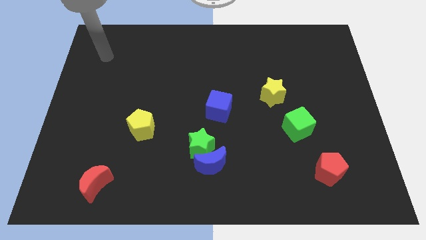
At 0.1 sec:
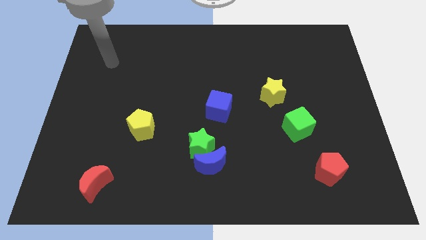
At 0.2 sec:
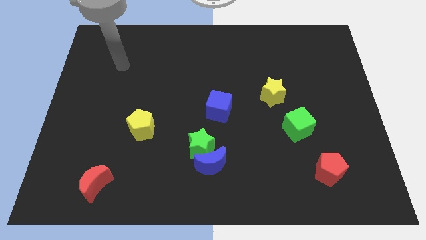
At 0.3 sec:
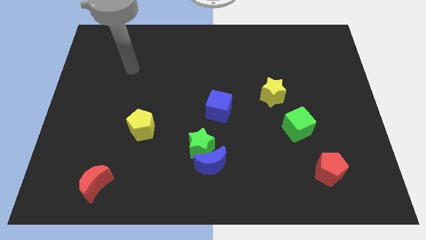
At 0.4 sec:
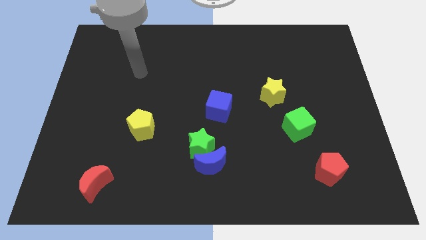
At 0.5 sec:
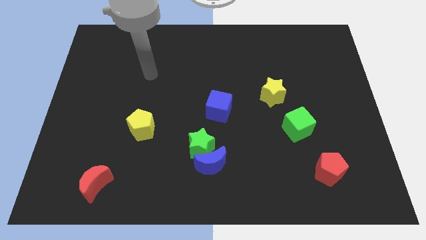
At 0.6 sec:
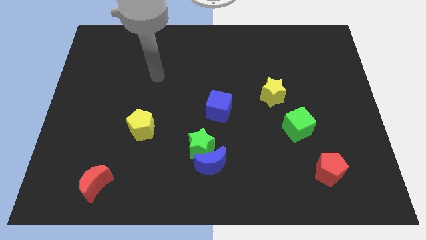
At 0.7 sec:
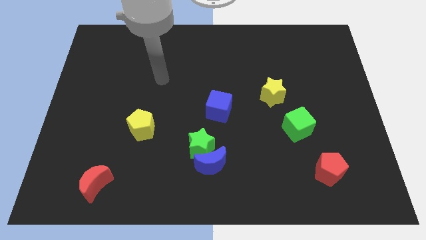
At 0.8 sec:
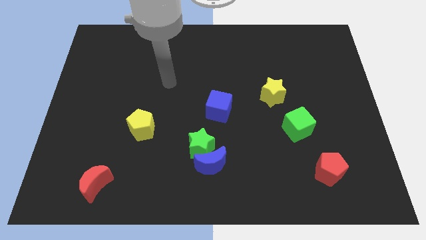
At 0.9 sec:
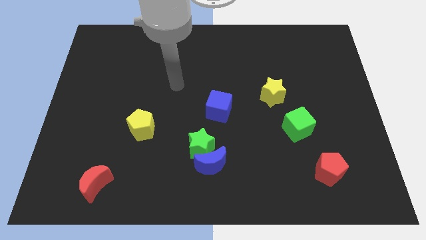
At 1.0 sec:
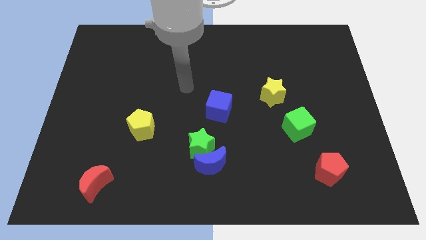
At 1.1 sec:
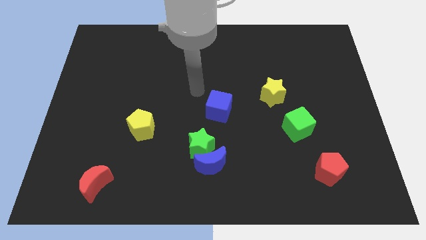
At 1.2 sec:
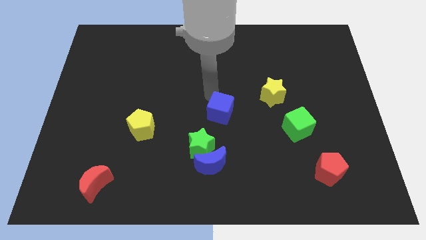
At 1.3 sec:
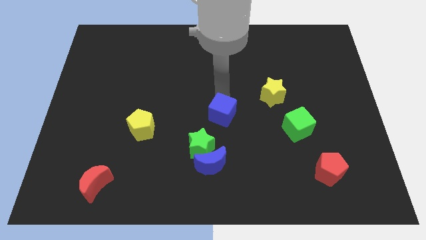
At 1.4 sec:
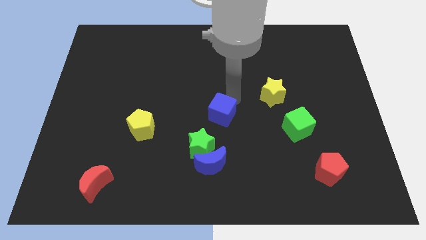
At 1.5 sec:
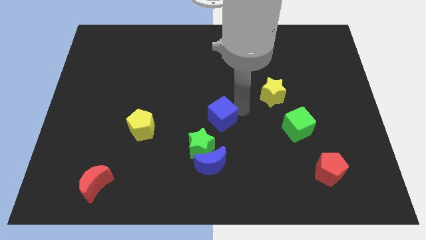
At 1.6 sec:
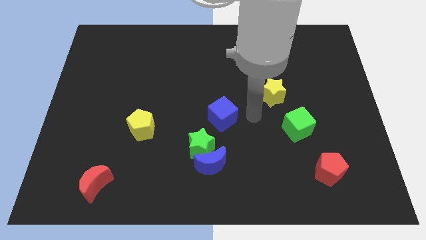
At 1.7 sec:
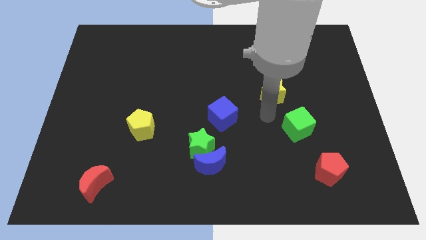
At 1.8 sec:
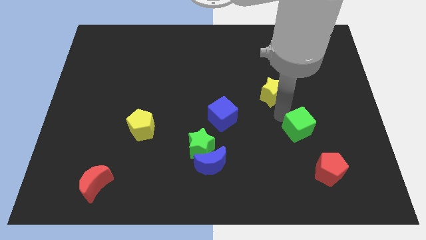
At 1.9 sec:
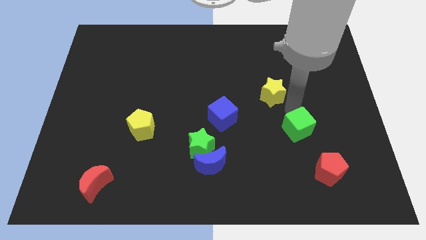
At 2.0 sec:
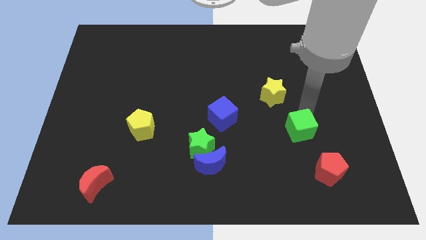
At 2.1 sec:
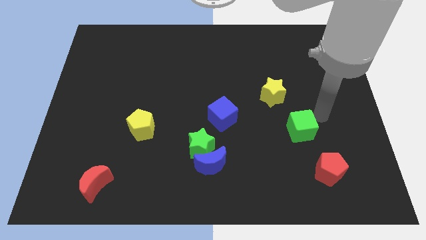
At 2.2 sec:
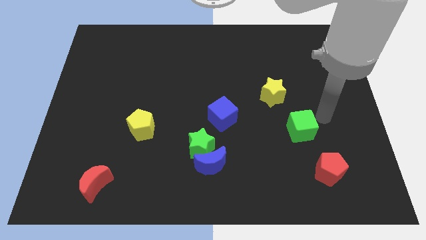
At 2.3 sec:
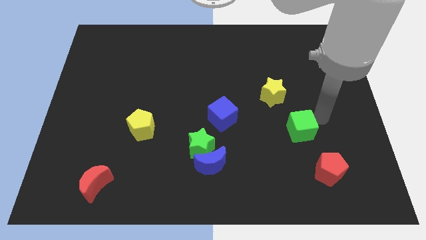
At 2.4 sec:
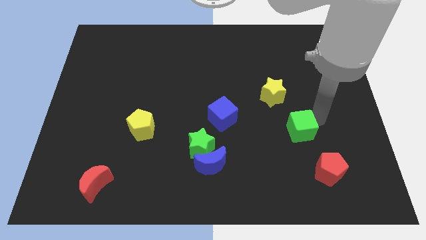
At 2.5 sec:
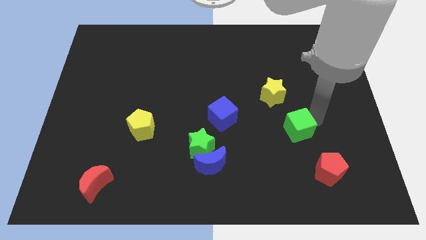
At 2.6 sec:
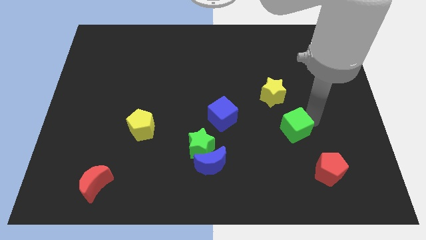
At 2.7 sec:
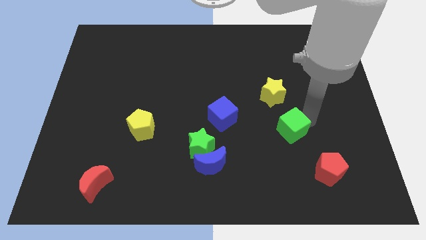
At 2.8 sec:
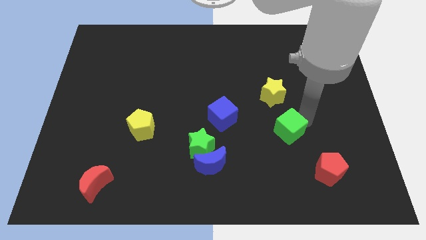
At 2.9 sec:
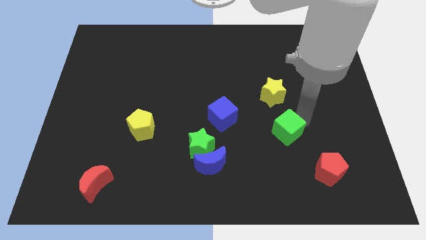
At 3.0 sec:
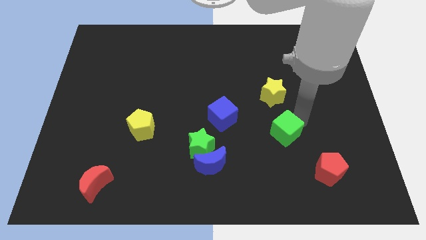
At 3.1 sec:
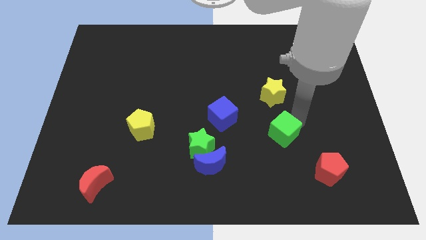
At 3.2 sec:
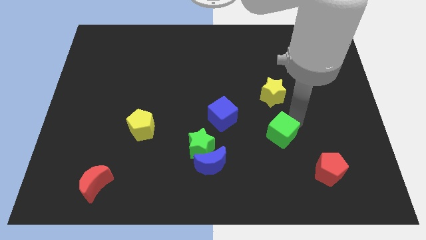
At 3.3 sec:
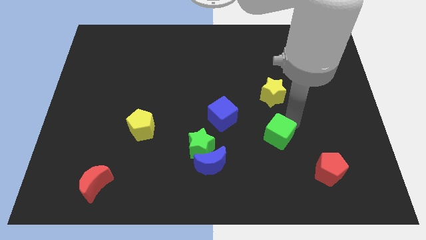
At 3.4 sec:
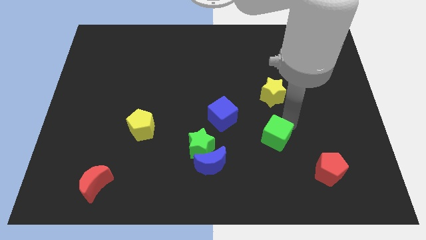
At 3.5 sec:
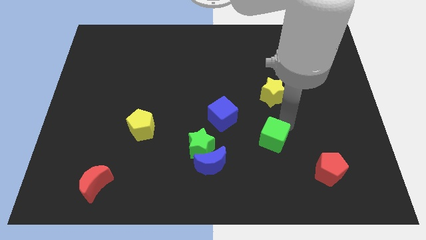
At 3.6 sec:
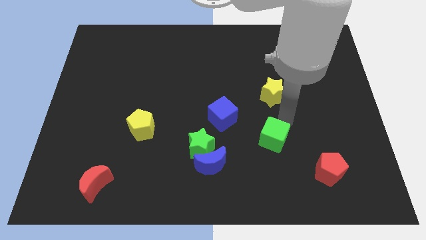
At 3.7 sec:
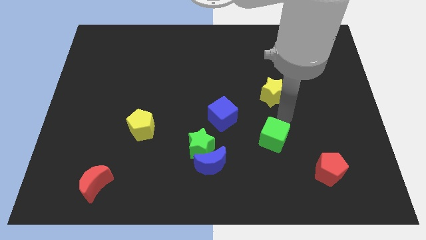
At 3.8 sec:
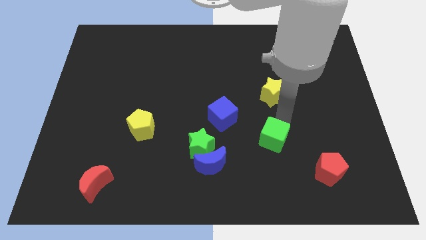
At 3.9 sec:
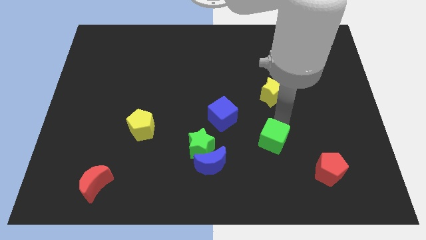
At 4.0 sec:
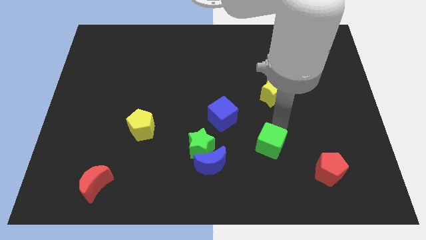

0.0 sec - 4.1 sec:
slightly move the green cube down and then to the left

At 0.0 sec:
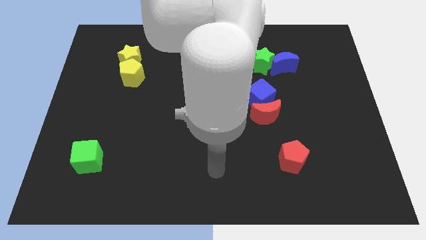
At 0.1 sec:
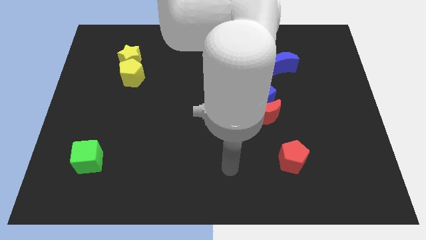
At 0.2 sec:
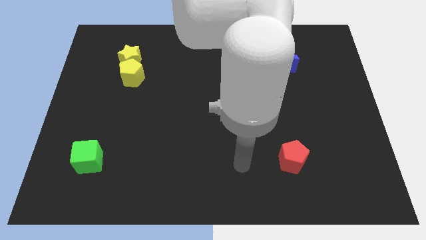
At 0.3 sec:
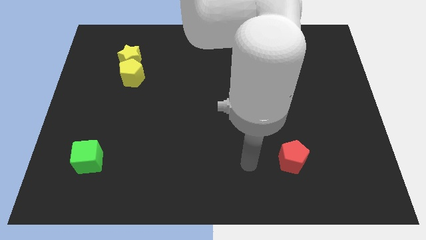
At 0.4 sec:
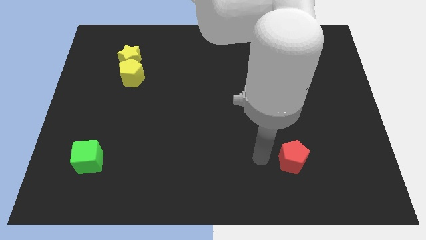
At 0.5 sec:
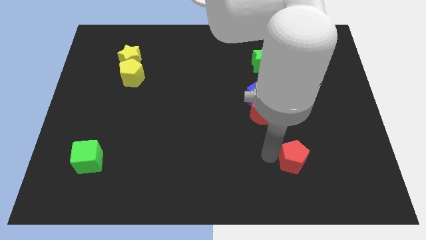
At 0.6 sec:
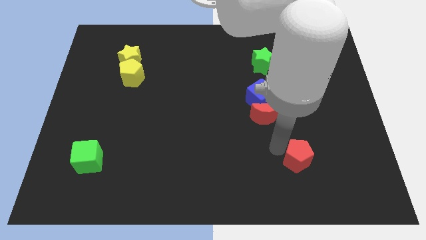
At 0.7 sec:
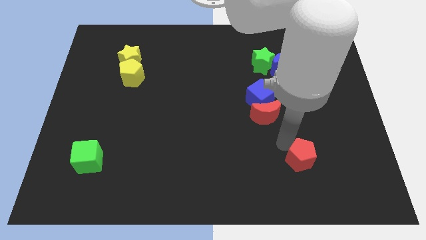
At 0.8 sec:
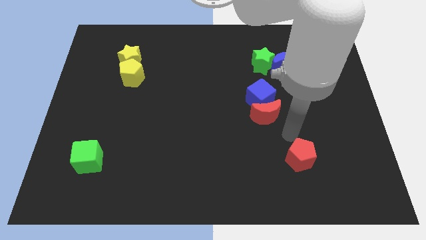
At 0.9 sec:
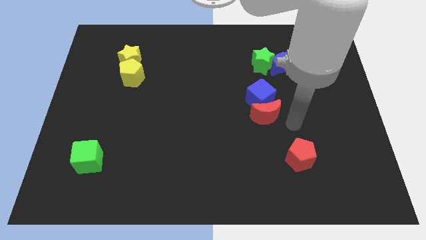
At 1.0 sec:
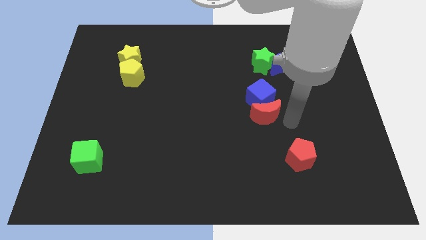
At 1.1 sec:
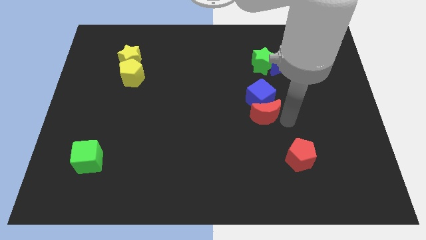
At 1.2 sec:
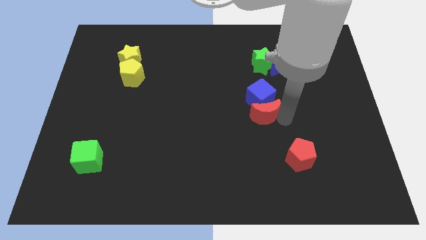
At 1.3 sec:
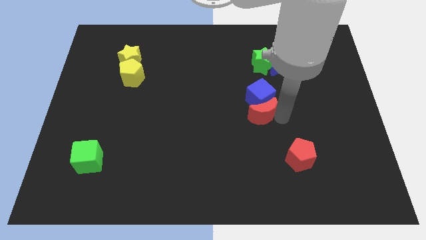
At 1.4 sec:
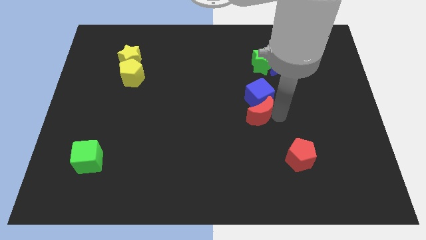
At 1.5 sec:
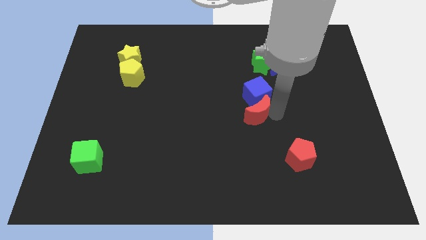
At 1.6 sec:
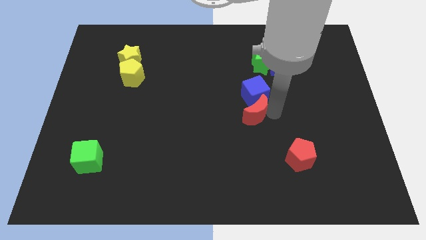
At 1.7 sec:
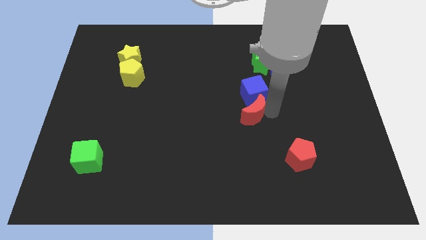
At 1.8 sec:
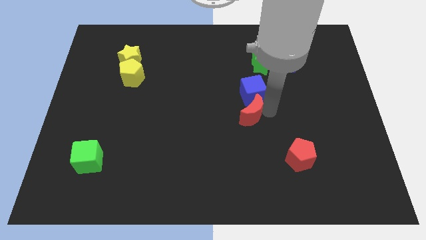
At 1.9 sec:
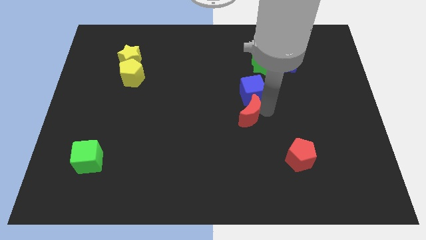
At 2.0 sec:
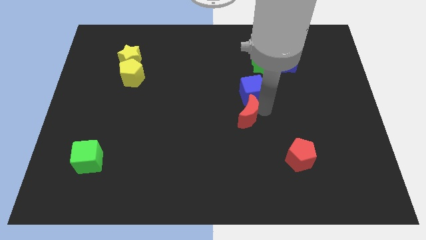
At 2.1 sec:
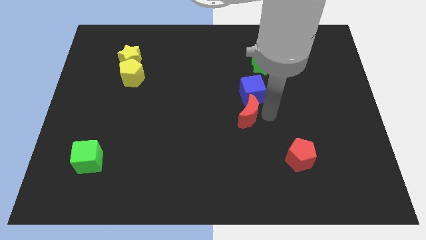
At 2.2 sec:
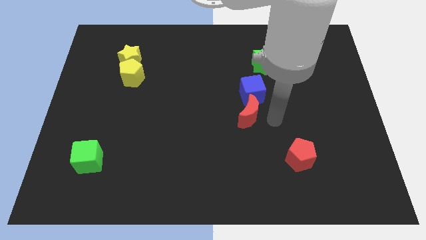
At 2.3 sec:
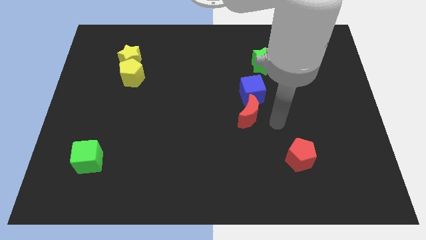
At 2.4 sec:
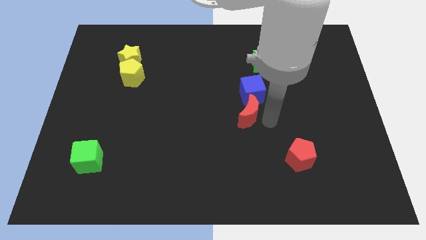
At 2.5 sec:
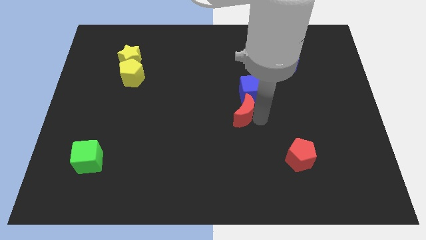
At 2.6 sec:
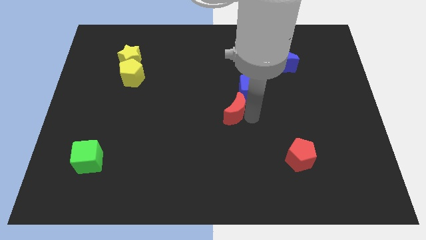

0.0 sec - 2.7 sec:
slide the red moon left somewhat

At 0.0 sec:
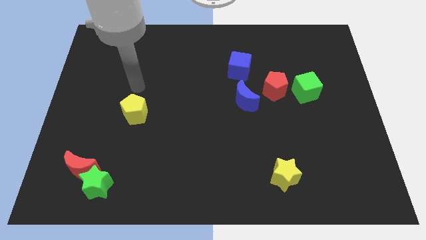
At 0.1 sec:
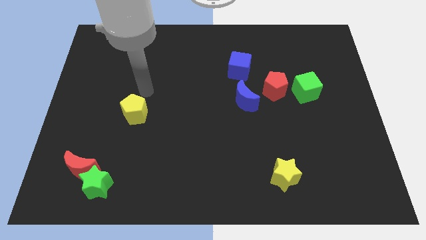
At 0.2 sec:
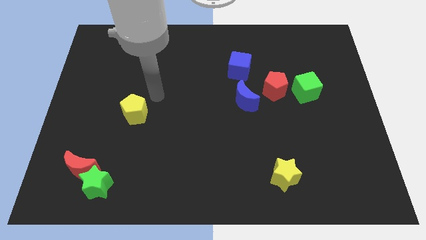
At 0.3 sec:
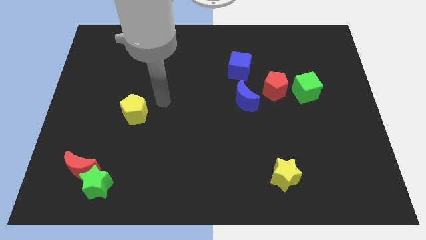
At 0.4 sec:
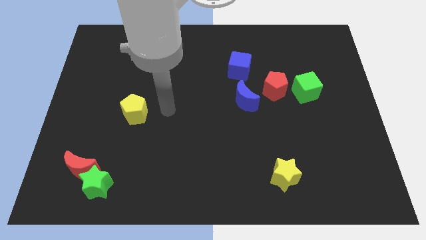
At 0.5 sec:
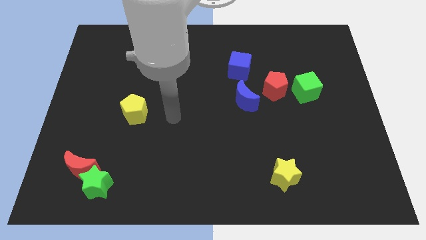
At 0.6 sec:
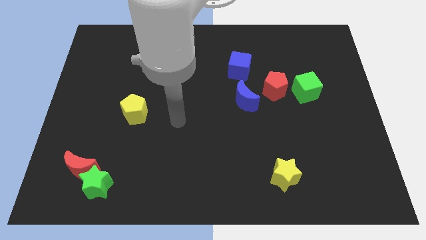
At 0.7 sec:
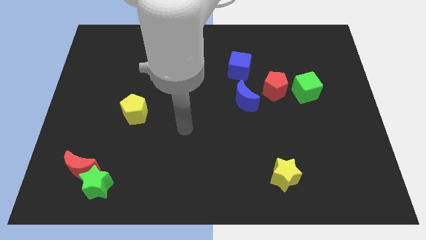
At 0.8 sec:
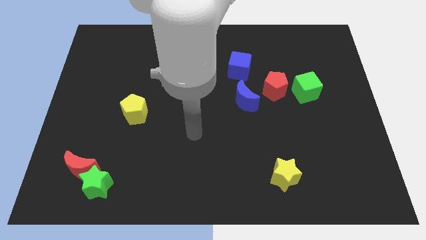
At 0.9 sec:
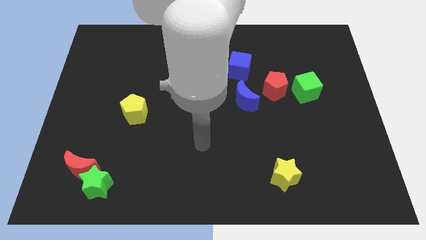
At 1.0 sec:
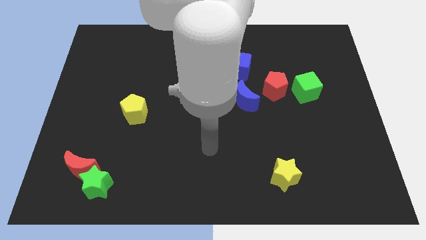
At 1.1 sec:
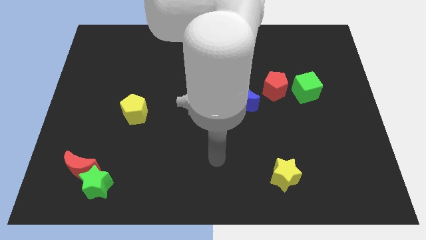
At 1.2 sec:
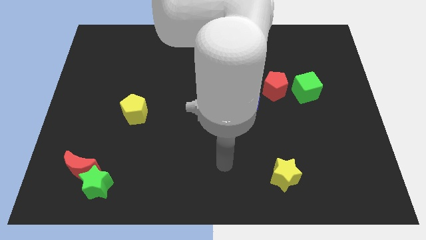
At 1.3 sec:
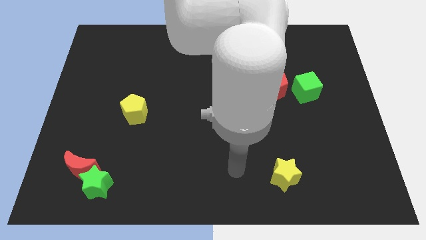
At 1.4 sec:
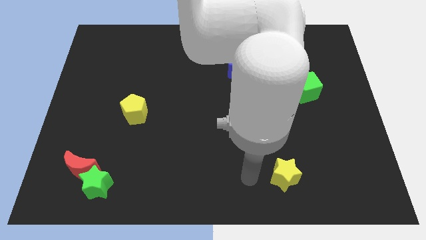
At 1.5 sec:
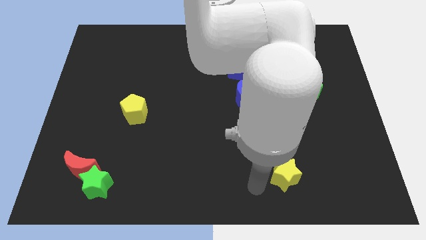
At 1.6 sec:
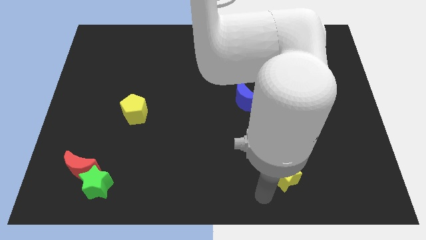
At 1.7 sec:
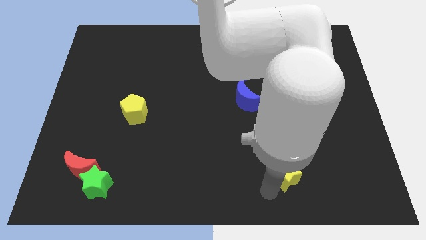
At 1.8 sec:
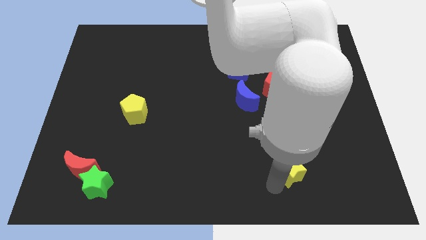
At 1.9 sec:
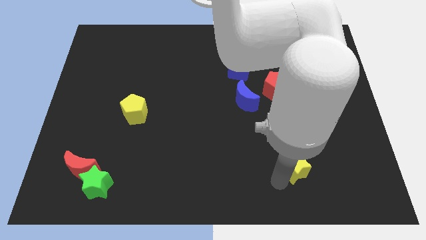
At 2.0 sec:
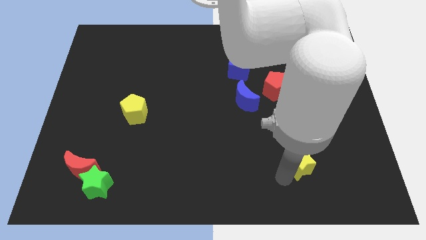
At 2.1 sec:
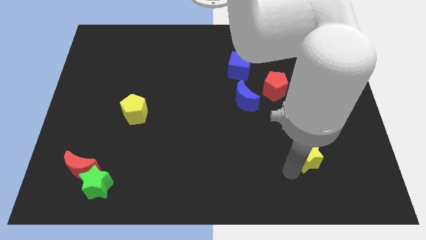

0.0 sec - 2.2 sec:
slightly slide the yellow star up and to the right diagonally
